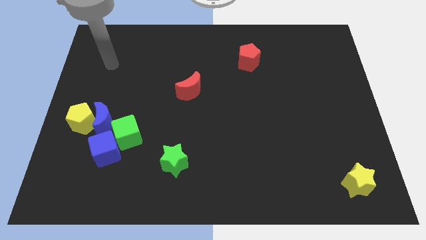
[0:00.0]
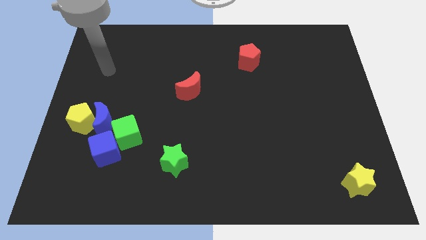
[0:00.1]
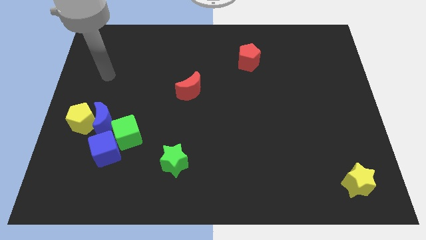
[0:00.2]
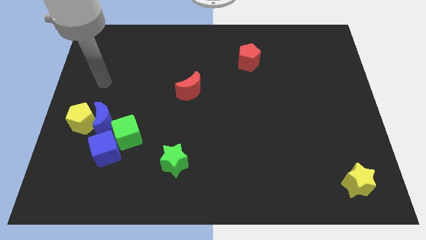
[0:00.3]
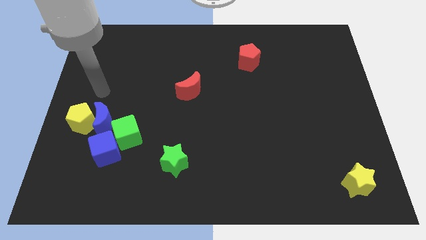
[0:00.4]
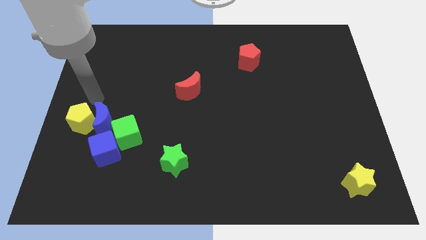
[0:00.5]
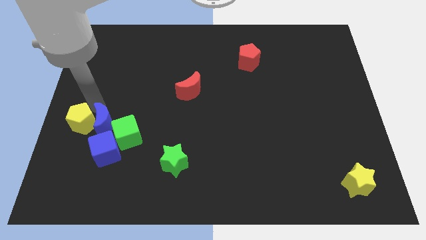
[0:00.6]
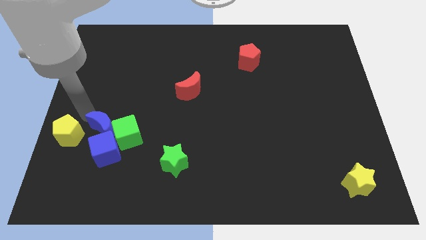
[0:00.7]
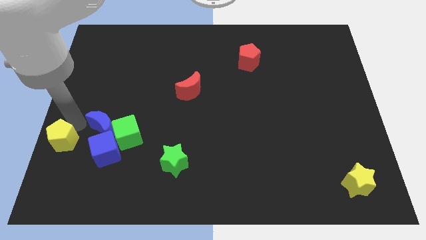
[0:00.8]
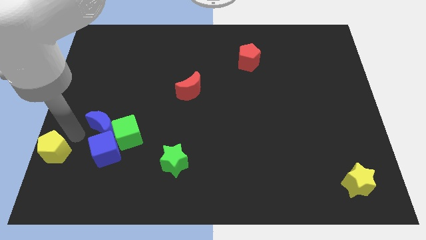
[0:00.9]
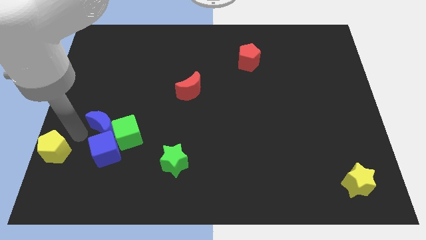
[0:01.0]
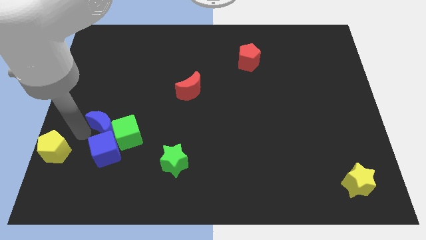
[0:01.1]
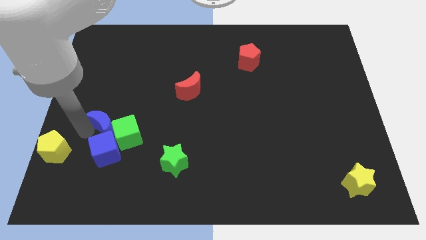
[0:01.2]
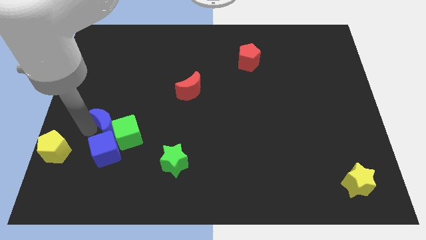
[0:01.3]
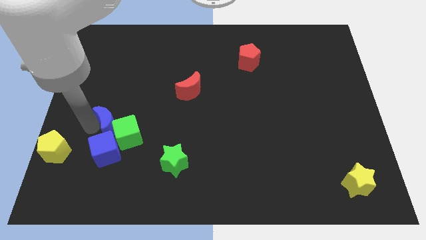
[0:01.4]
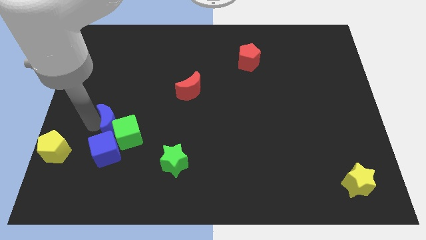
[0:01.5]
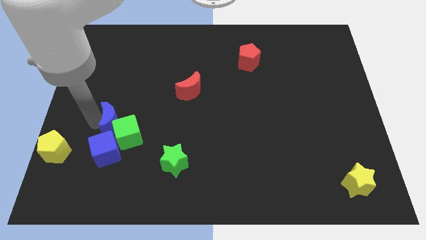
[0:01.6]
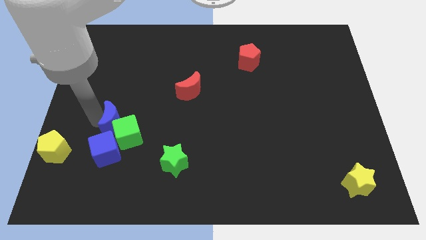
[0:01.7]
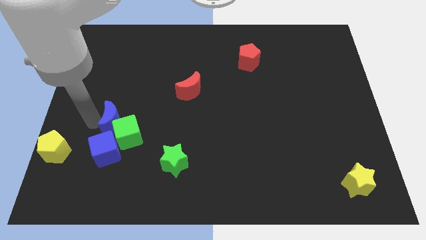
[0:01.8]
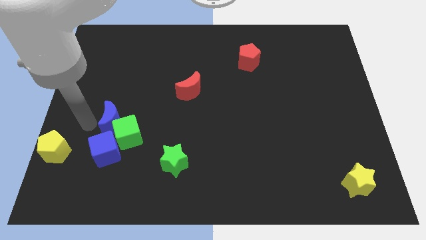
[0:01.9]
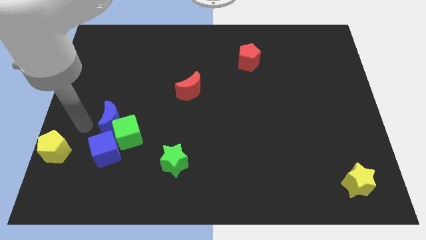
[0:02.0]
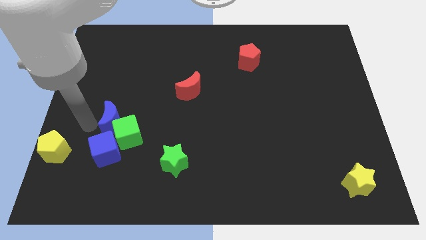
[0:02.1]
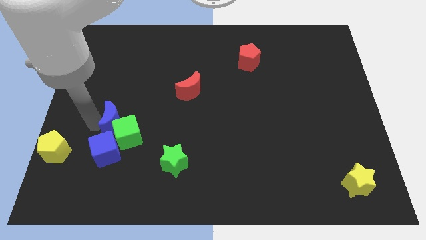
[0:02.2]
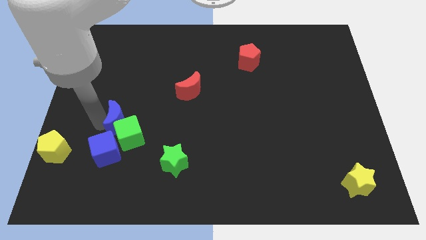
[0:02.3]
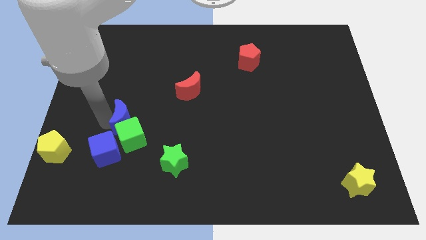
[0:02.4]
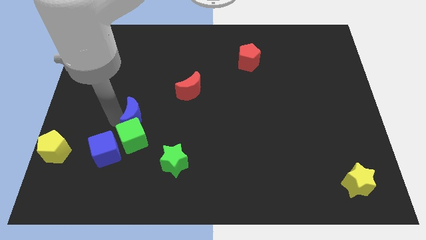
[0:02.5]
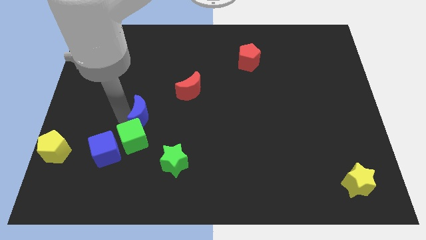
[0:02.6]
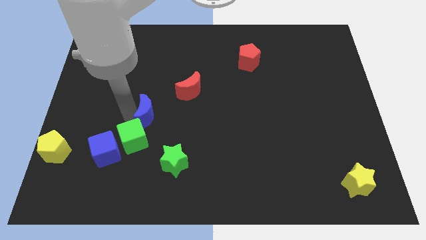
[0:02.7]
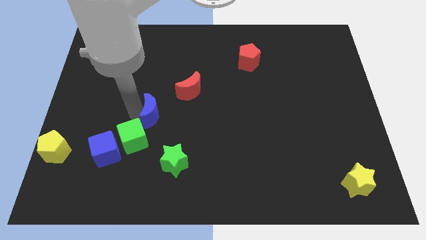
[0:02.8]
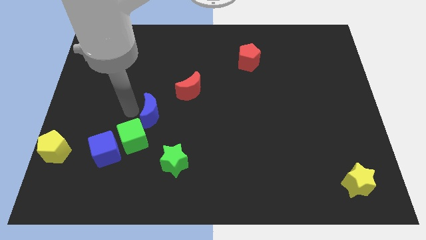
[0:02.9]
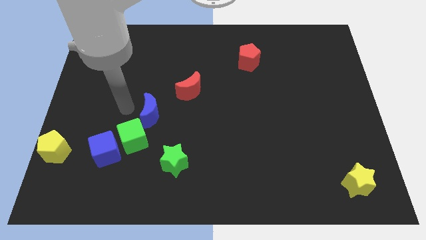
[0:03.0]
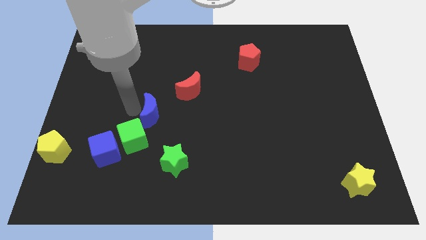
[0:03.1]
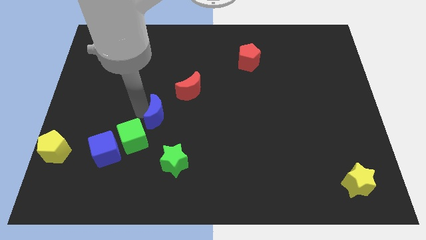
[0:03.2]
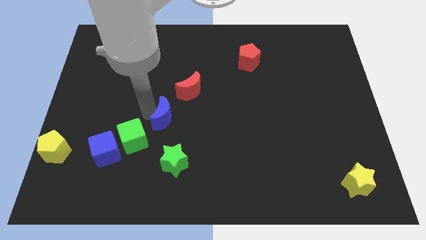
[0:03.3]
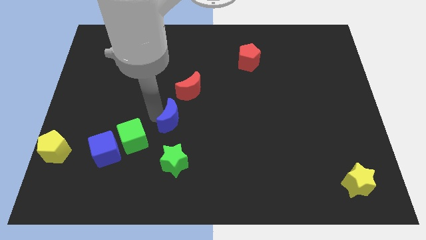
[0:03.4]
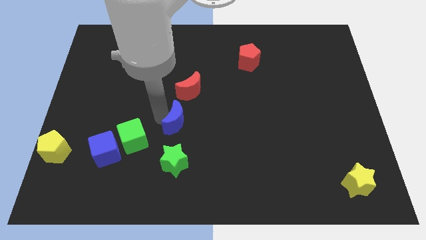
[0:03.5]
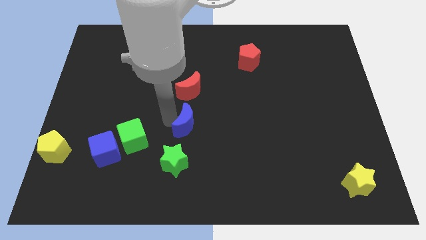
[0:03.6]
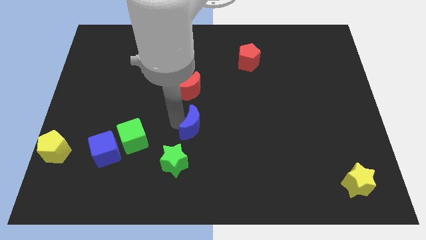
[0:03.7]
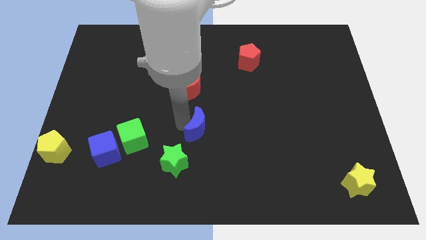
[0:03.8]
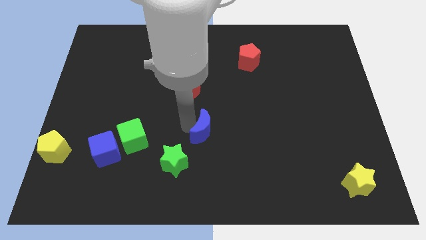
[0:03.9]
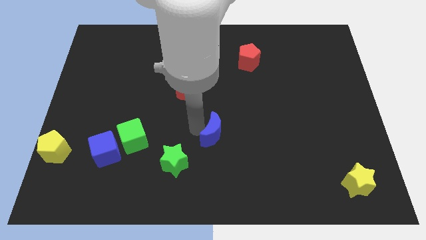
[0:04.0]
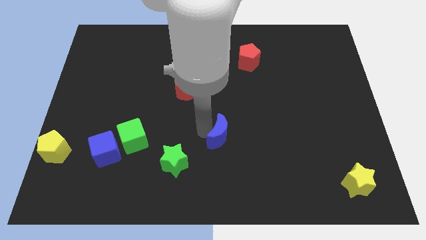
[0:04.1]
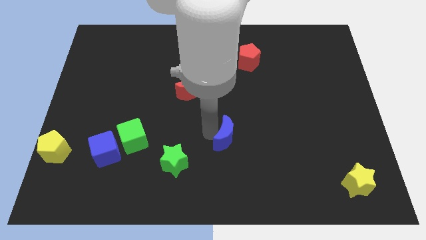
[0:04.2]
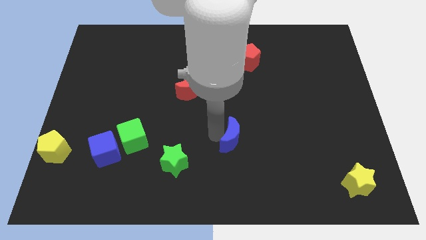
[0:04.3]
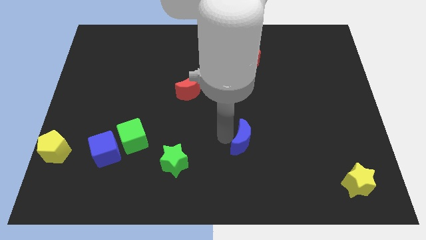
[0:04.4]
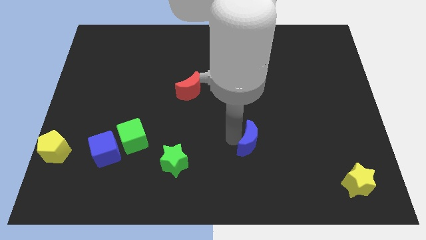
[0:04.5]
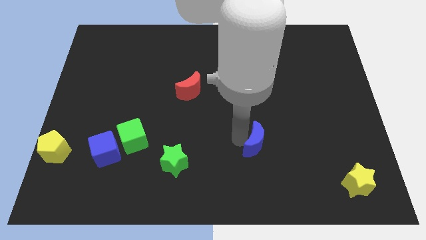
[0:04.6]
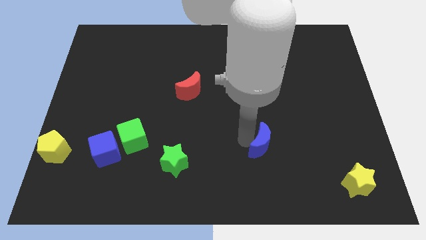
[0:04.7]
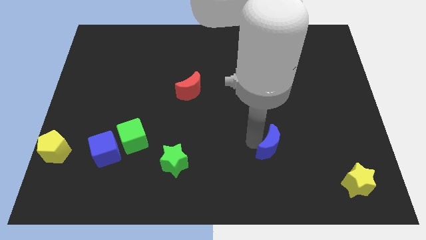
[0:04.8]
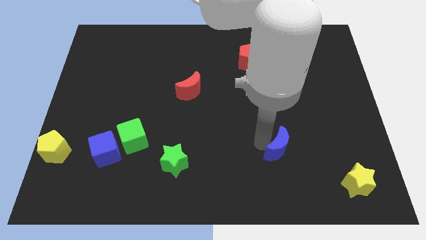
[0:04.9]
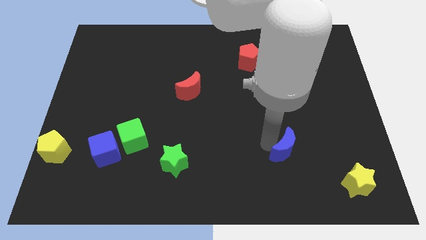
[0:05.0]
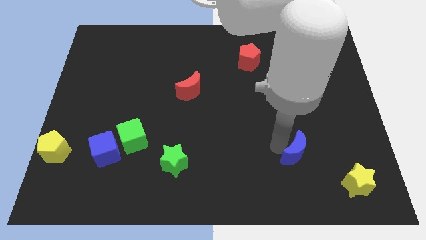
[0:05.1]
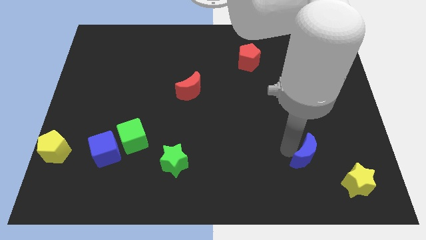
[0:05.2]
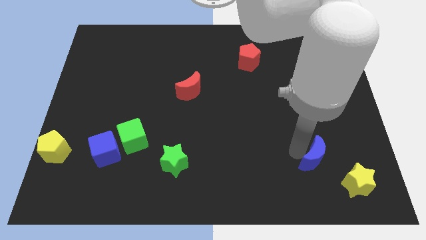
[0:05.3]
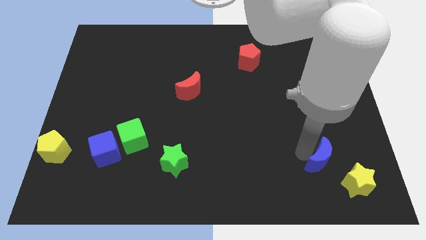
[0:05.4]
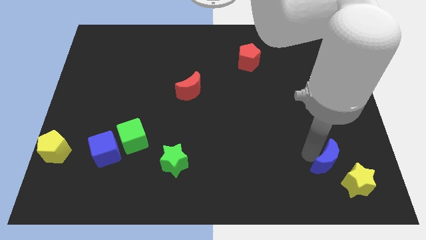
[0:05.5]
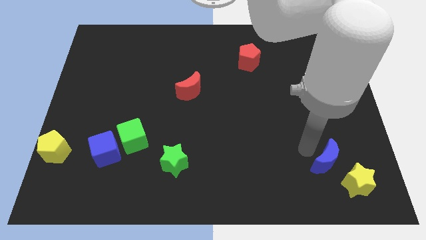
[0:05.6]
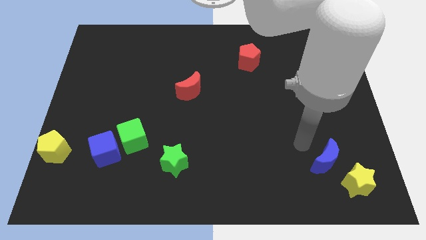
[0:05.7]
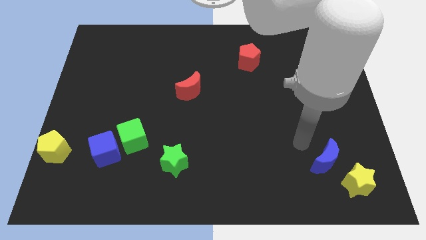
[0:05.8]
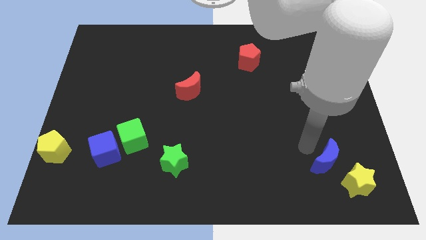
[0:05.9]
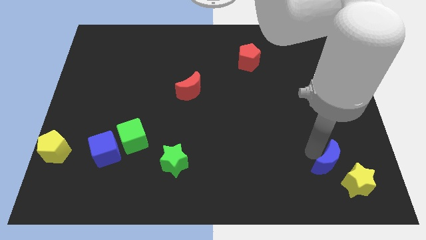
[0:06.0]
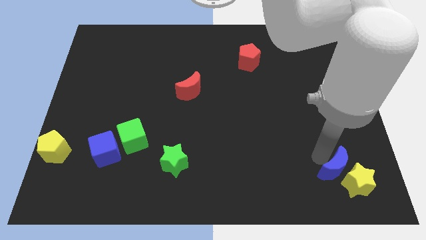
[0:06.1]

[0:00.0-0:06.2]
push the blue moon close to the yellow star

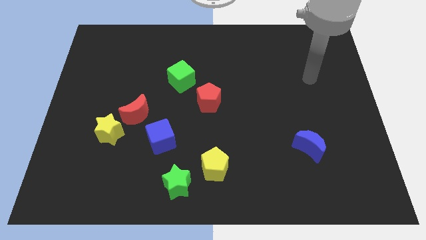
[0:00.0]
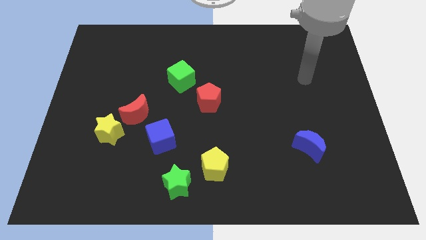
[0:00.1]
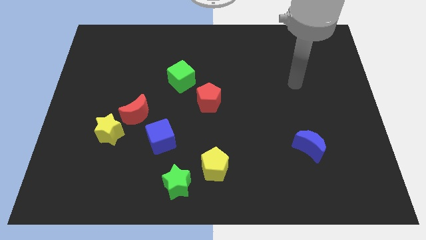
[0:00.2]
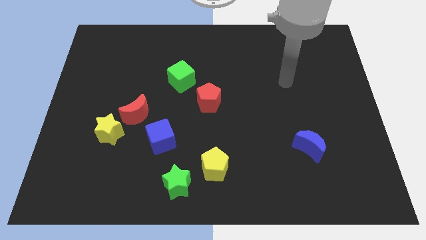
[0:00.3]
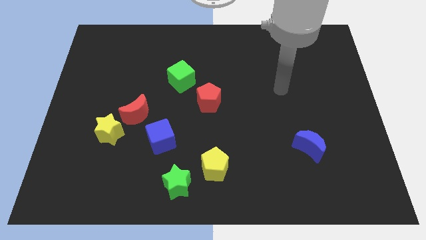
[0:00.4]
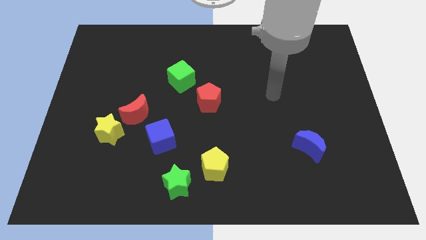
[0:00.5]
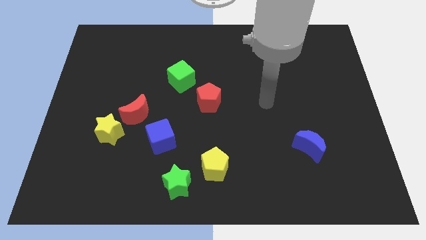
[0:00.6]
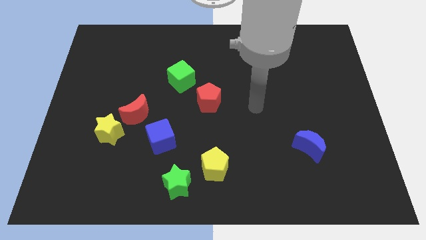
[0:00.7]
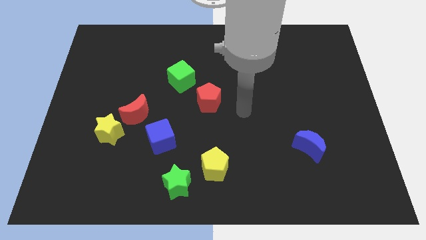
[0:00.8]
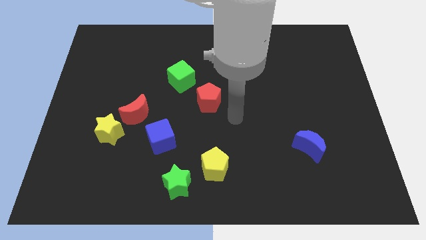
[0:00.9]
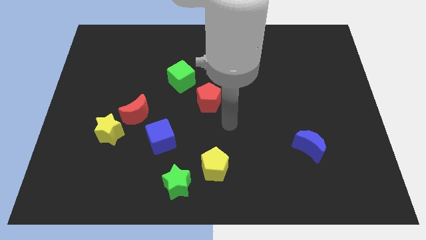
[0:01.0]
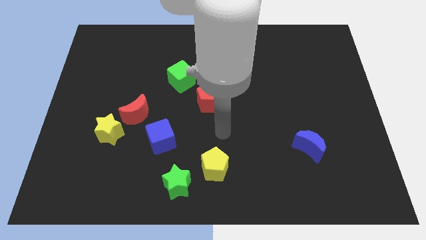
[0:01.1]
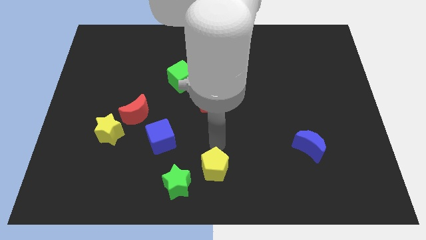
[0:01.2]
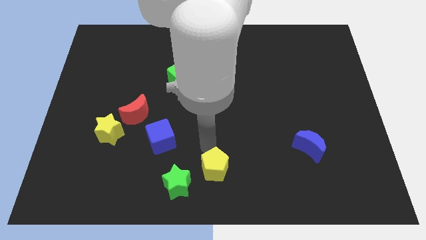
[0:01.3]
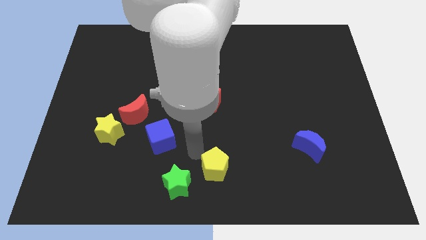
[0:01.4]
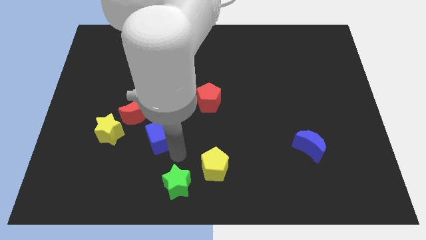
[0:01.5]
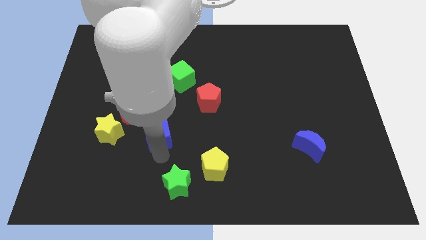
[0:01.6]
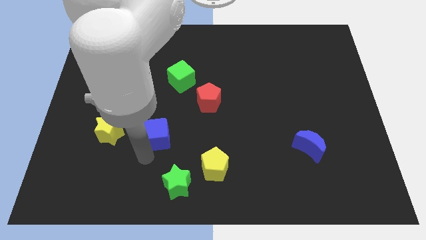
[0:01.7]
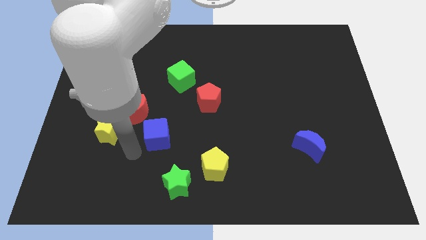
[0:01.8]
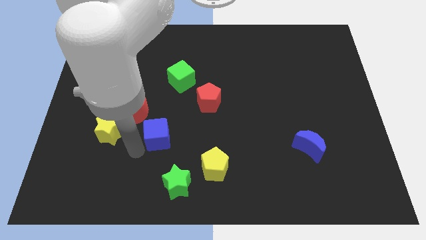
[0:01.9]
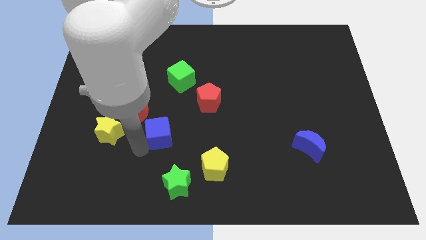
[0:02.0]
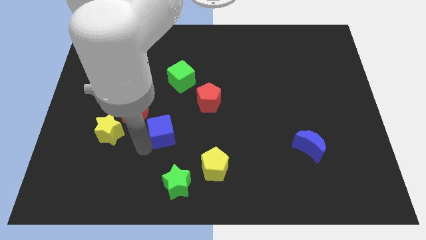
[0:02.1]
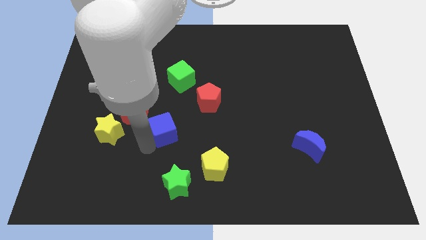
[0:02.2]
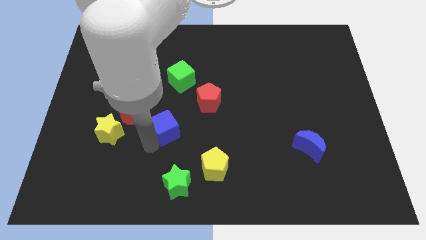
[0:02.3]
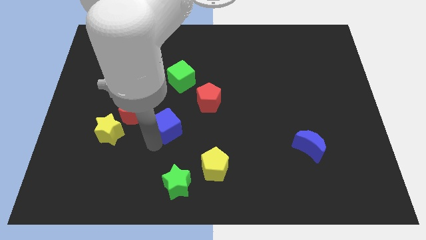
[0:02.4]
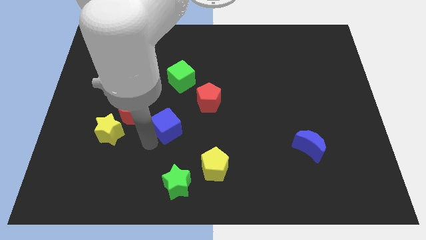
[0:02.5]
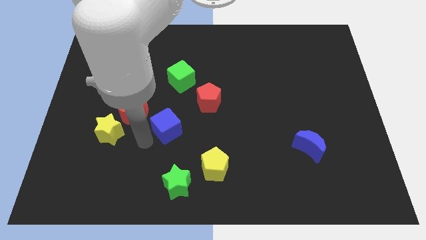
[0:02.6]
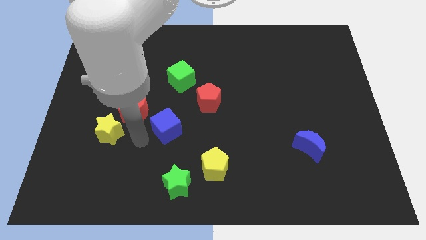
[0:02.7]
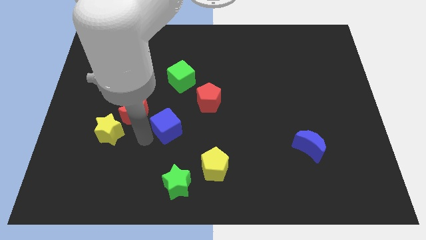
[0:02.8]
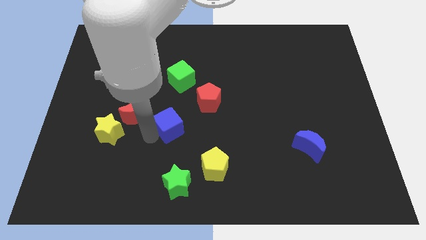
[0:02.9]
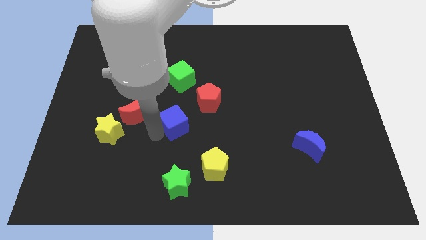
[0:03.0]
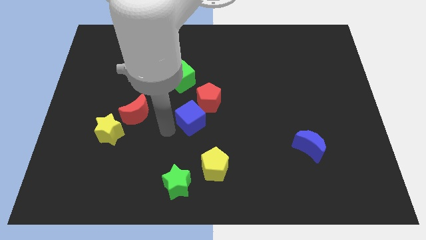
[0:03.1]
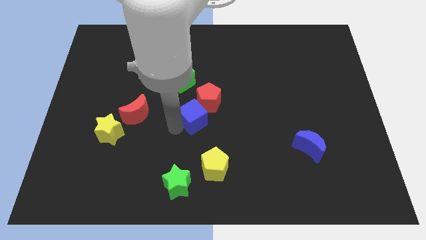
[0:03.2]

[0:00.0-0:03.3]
push the blue cube to the red pentagon
